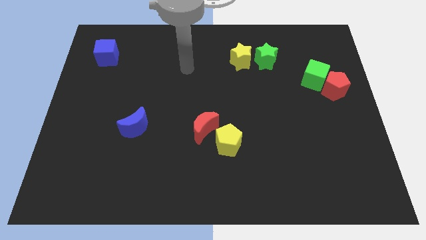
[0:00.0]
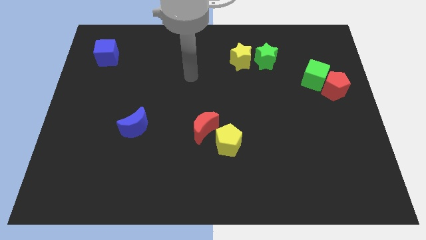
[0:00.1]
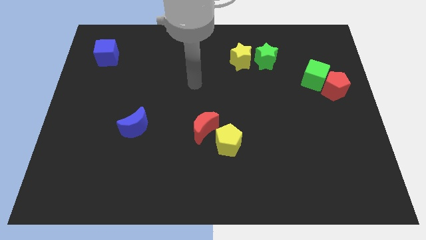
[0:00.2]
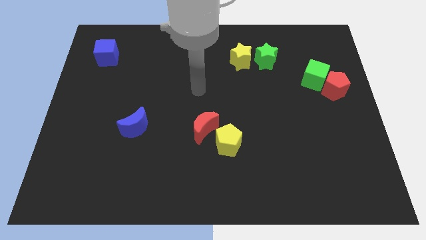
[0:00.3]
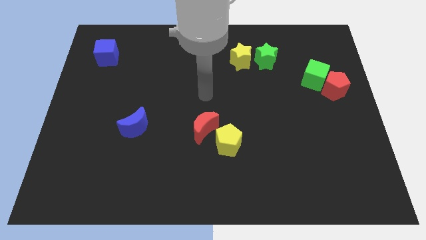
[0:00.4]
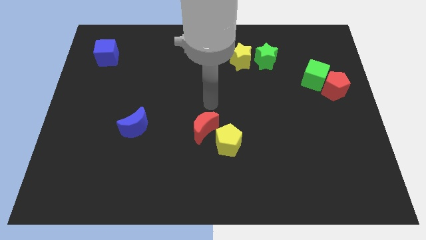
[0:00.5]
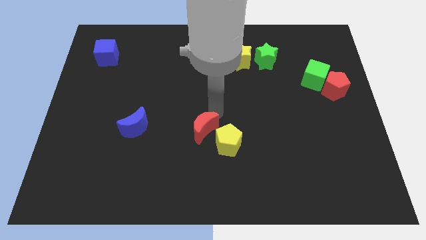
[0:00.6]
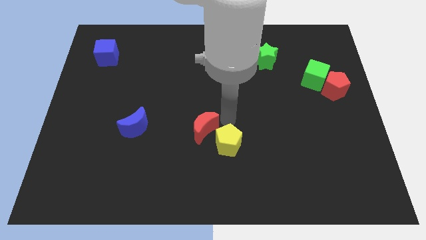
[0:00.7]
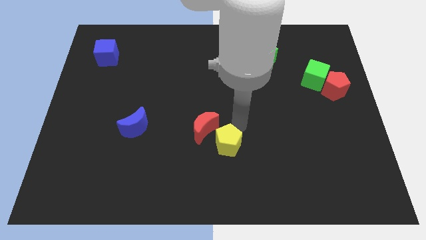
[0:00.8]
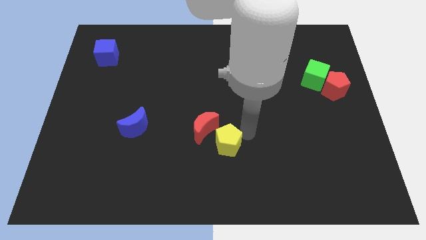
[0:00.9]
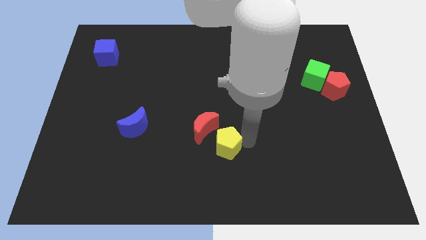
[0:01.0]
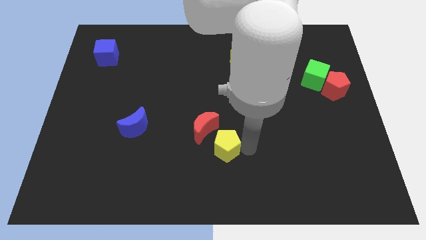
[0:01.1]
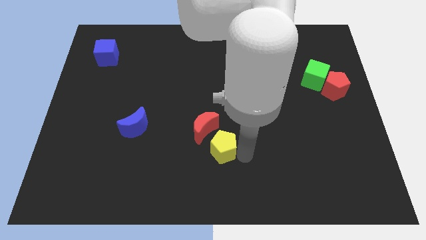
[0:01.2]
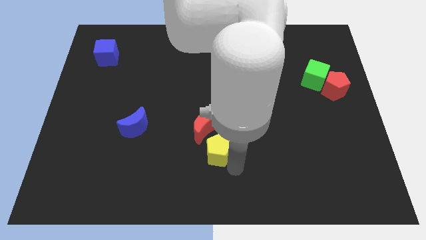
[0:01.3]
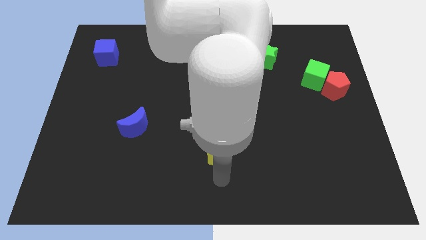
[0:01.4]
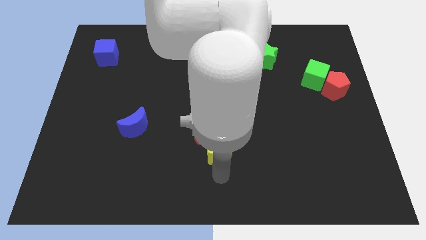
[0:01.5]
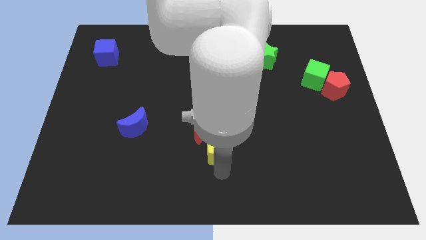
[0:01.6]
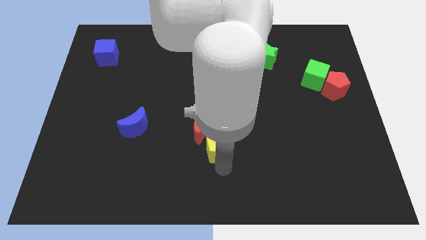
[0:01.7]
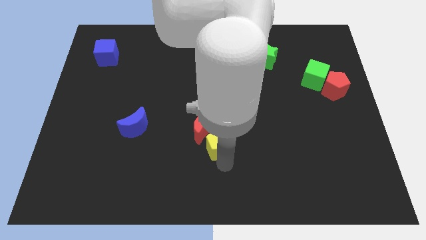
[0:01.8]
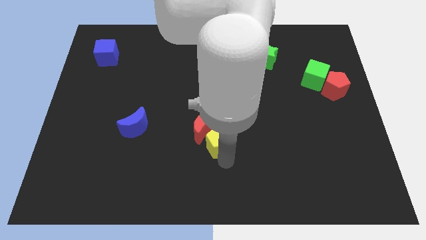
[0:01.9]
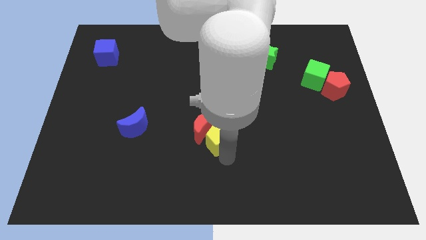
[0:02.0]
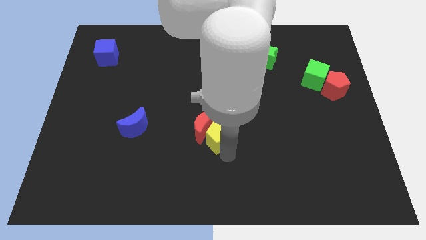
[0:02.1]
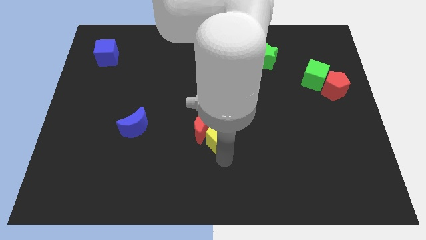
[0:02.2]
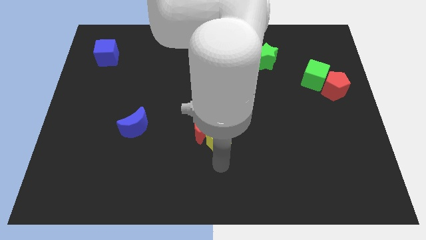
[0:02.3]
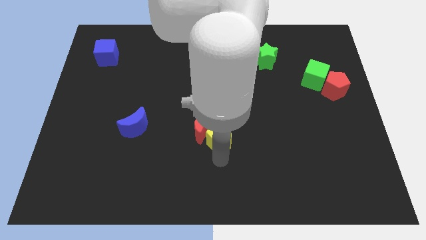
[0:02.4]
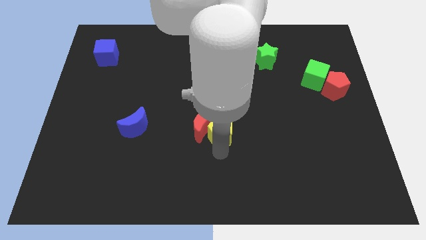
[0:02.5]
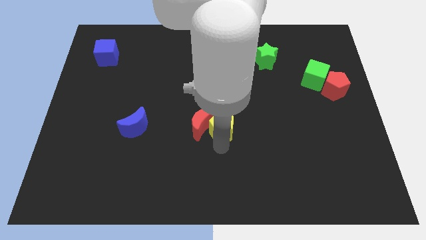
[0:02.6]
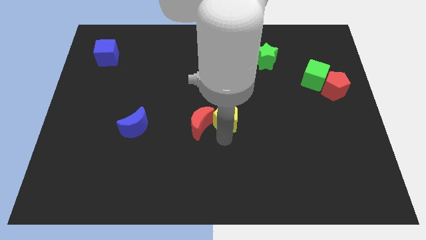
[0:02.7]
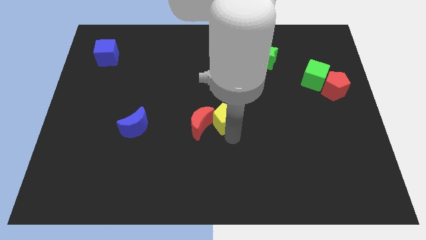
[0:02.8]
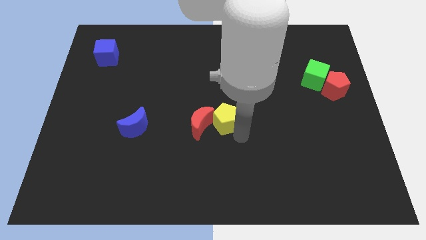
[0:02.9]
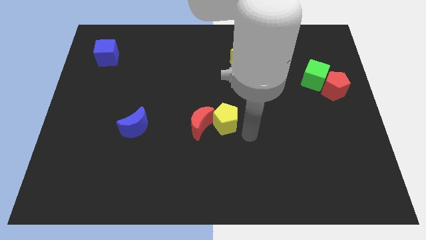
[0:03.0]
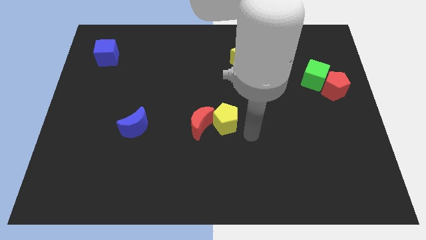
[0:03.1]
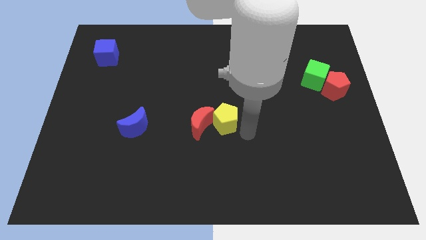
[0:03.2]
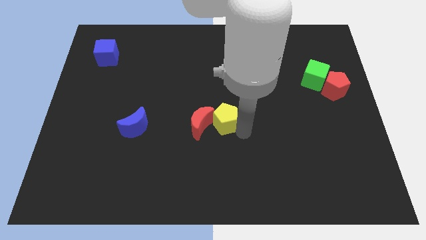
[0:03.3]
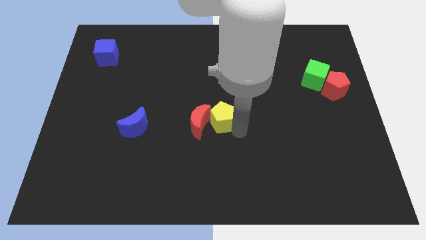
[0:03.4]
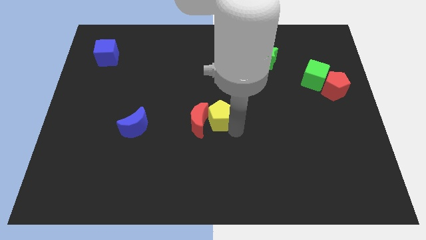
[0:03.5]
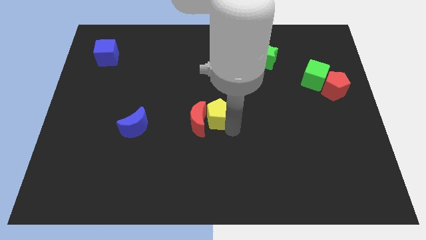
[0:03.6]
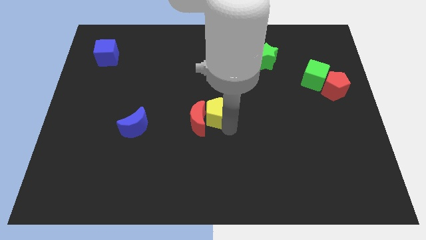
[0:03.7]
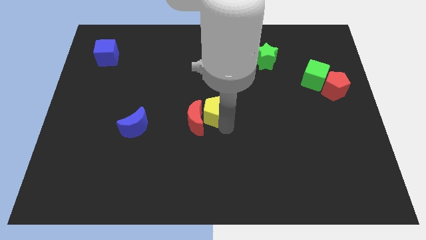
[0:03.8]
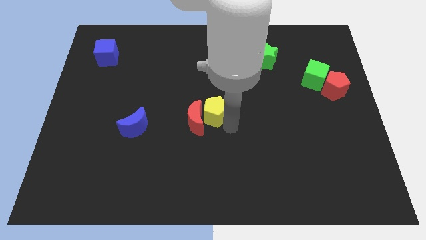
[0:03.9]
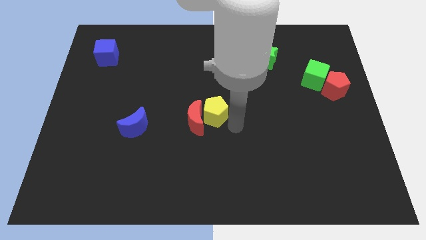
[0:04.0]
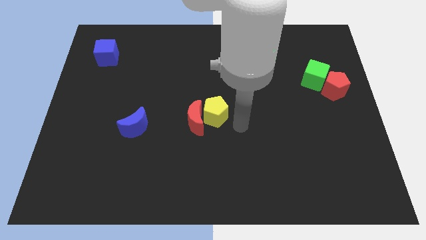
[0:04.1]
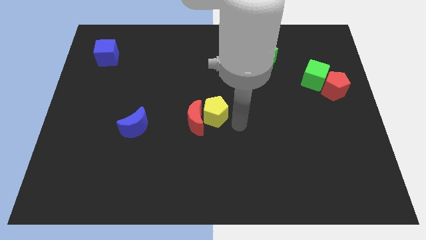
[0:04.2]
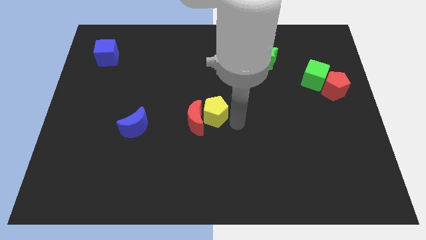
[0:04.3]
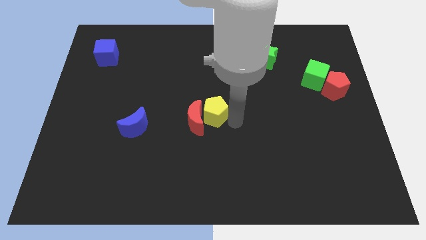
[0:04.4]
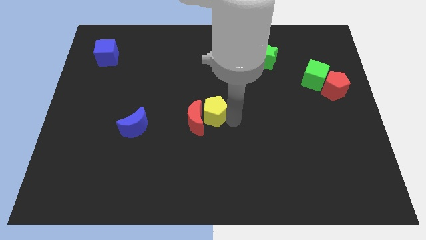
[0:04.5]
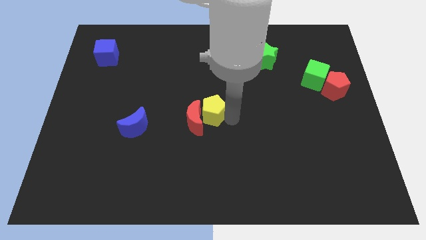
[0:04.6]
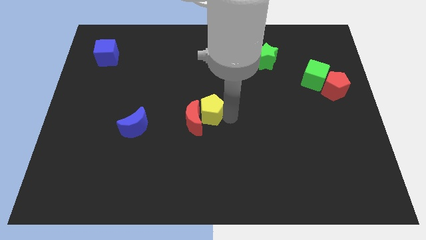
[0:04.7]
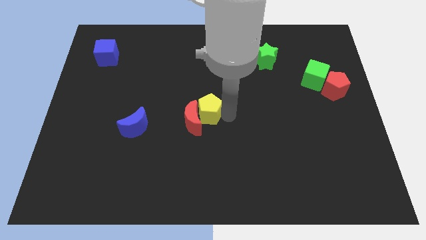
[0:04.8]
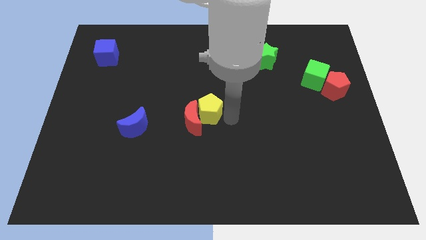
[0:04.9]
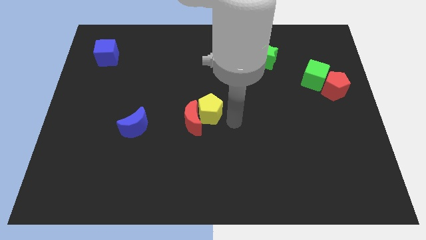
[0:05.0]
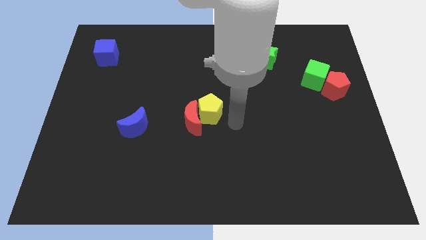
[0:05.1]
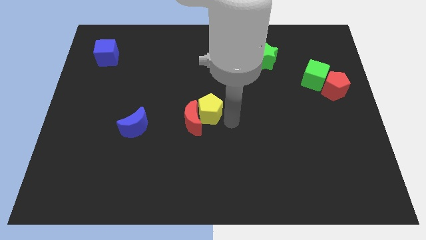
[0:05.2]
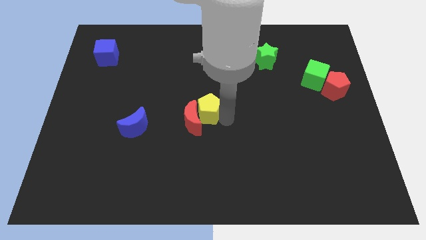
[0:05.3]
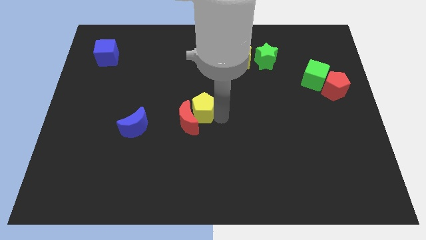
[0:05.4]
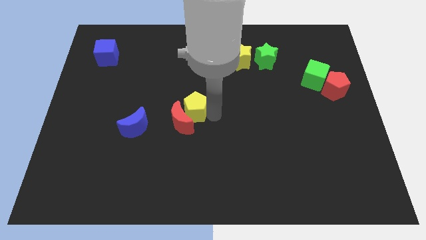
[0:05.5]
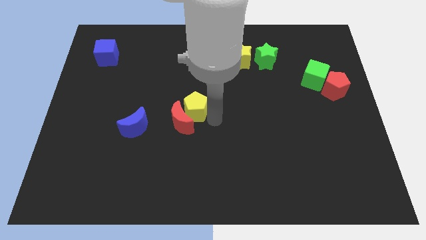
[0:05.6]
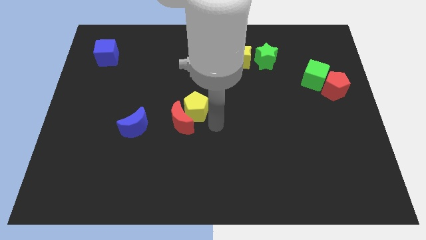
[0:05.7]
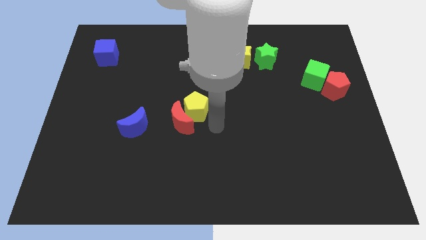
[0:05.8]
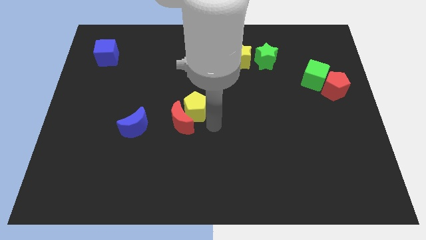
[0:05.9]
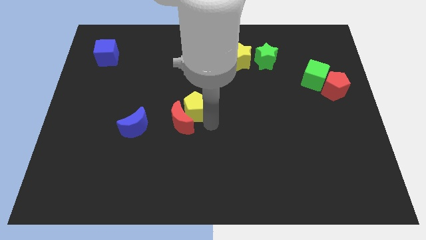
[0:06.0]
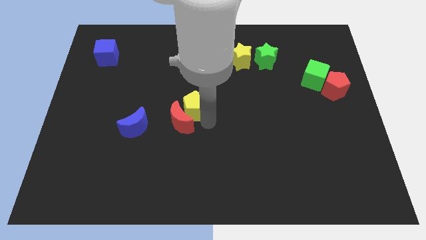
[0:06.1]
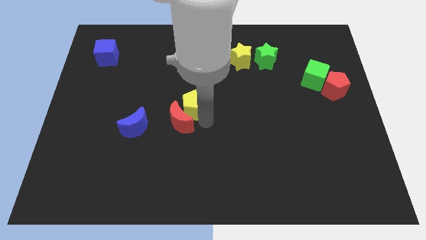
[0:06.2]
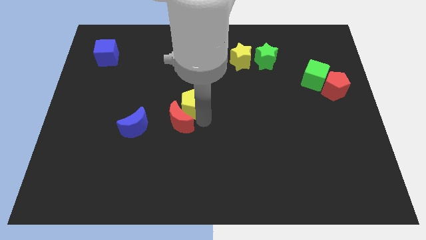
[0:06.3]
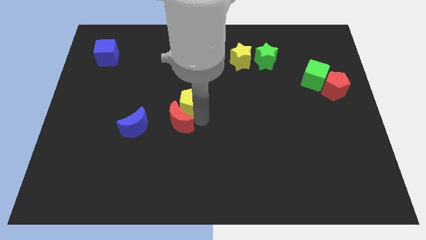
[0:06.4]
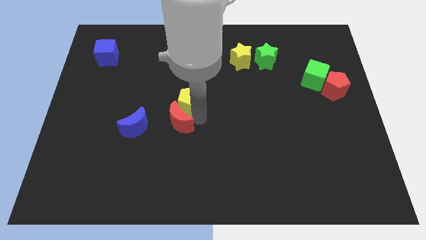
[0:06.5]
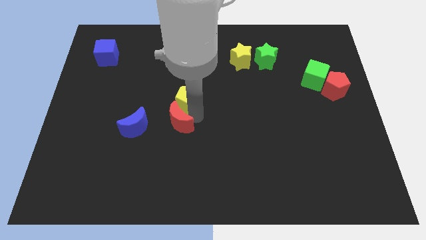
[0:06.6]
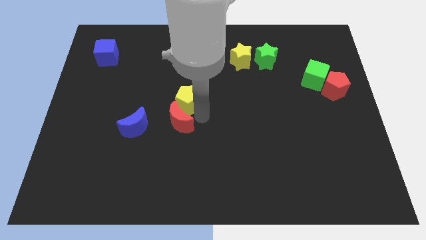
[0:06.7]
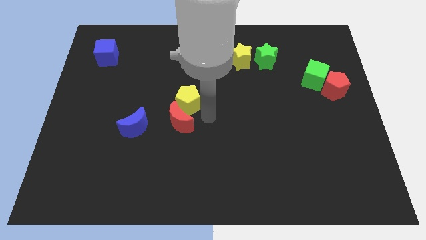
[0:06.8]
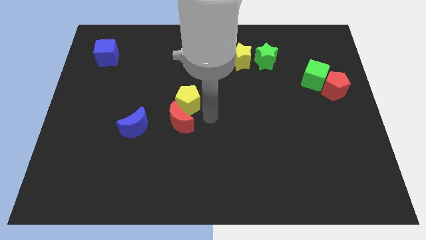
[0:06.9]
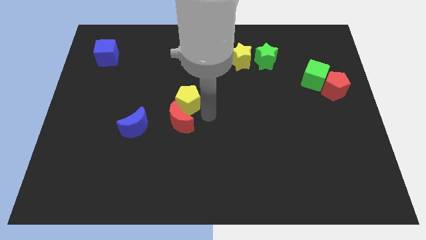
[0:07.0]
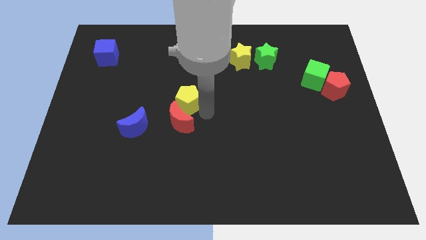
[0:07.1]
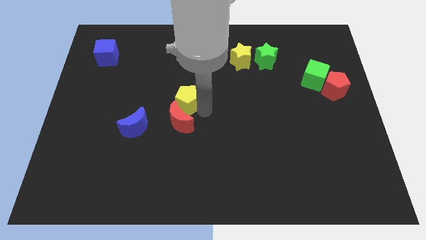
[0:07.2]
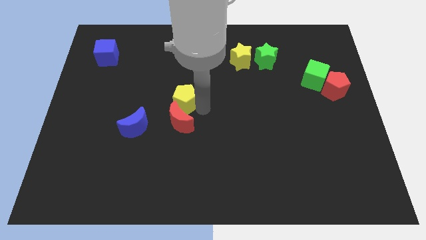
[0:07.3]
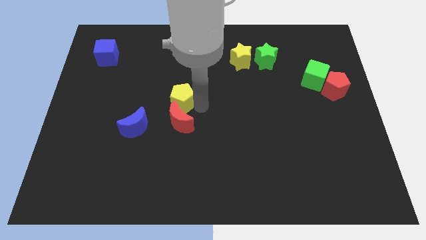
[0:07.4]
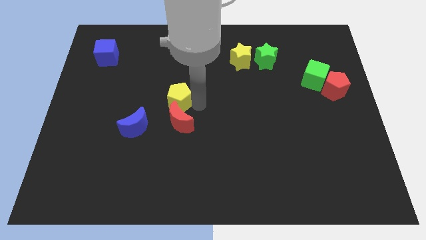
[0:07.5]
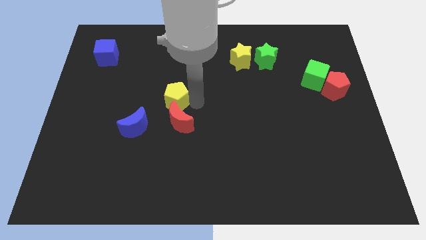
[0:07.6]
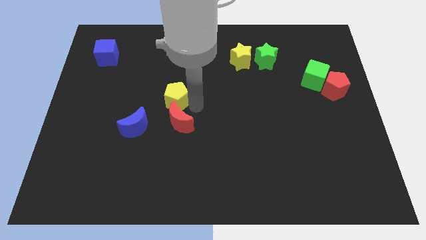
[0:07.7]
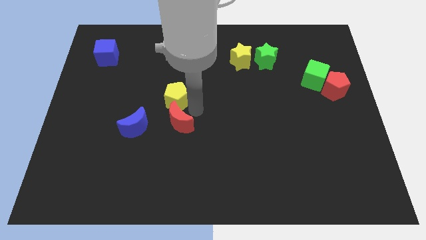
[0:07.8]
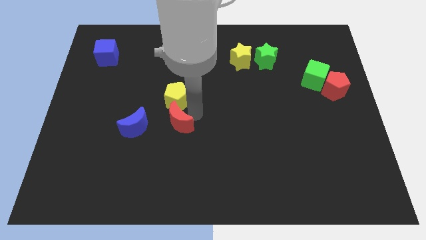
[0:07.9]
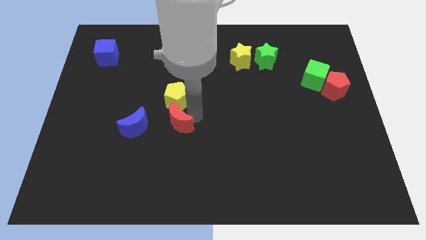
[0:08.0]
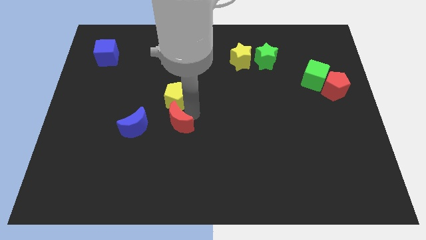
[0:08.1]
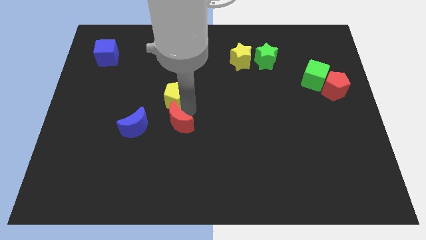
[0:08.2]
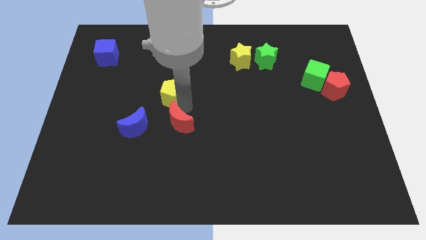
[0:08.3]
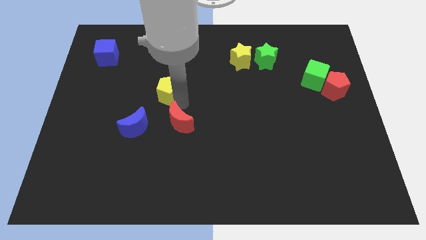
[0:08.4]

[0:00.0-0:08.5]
push the yellow pentagon up and left diagonally
